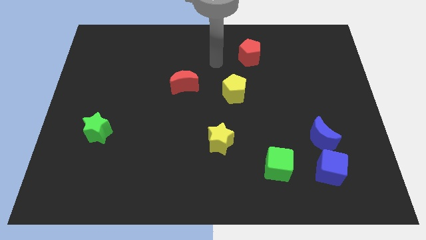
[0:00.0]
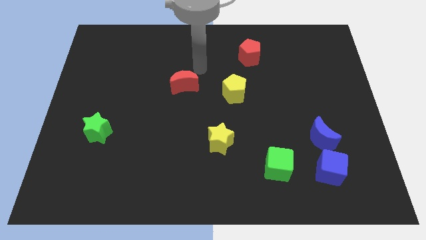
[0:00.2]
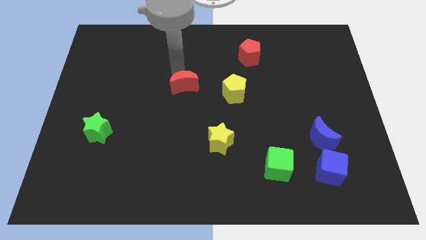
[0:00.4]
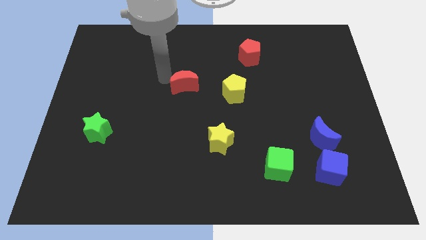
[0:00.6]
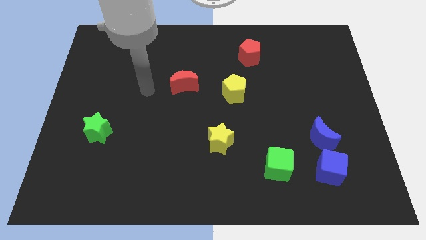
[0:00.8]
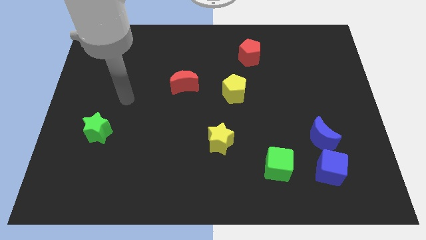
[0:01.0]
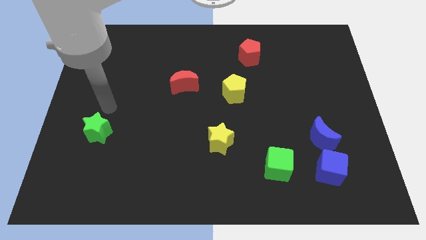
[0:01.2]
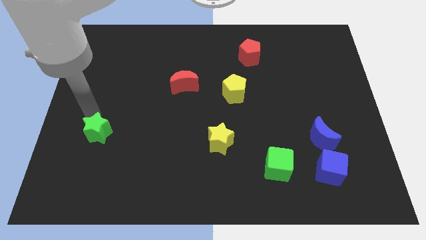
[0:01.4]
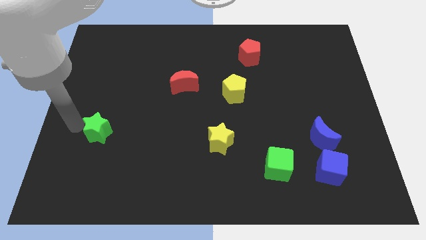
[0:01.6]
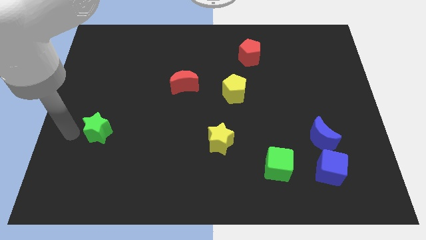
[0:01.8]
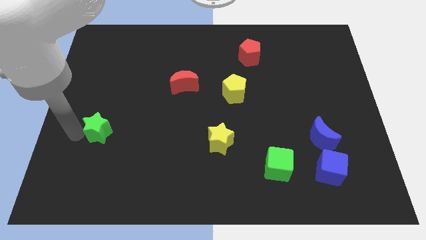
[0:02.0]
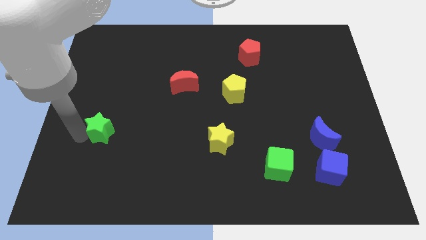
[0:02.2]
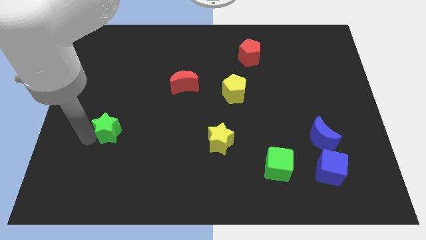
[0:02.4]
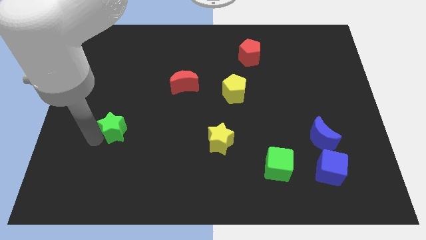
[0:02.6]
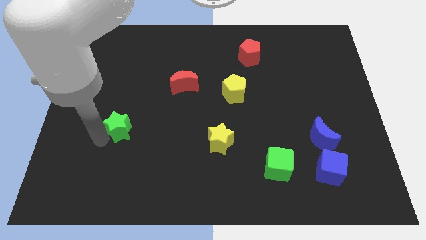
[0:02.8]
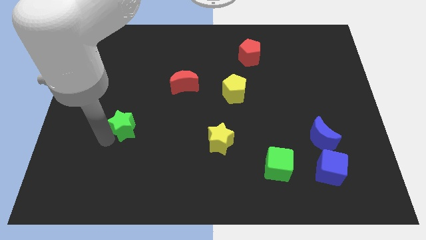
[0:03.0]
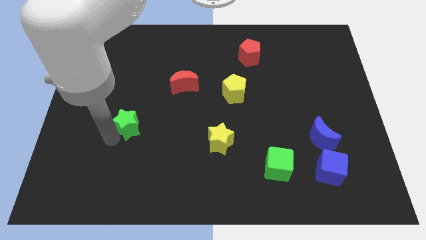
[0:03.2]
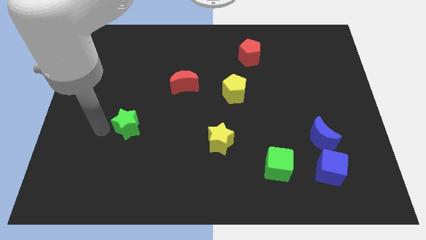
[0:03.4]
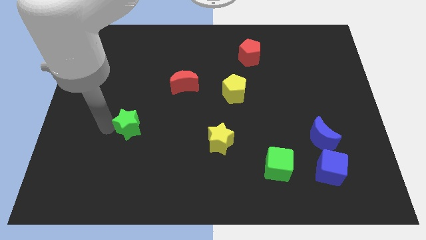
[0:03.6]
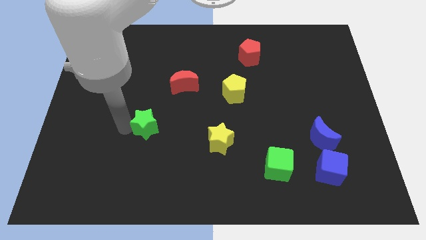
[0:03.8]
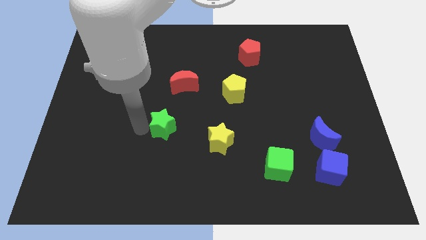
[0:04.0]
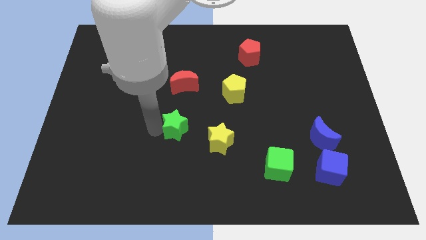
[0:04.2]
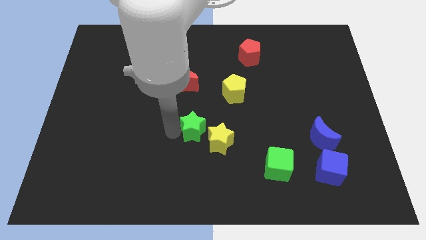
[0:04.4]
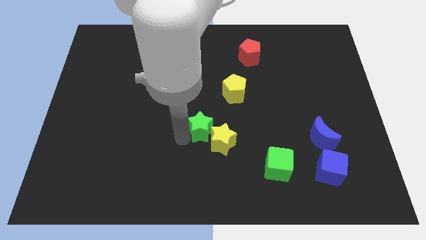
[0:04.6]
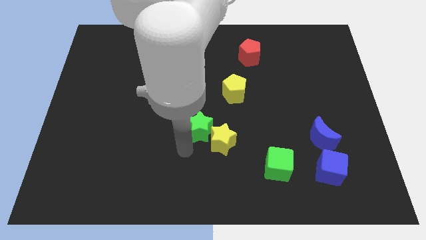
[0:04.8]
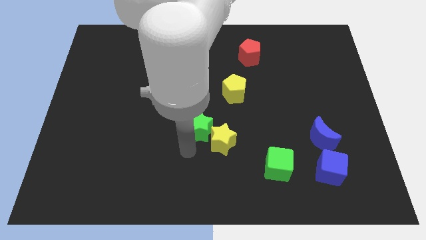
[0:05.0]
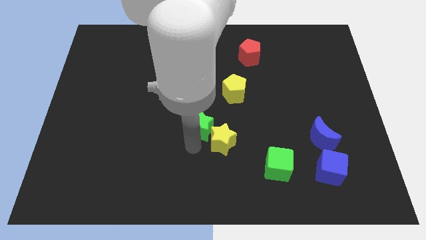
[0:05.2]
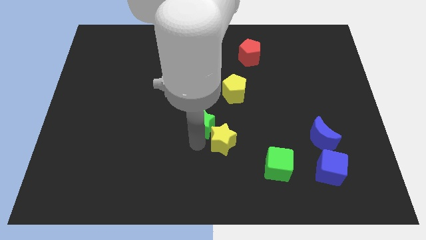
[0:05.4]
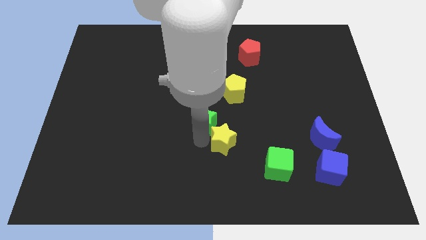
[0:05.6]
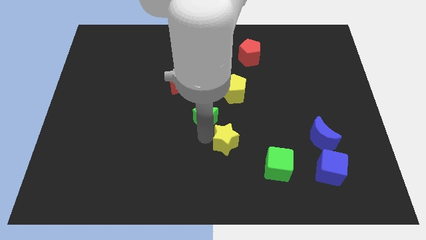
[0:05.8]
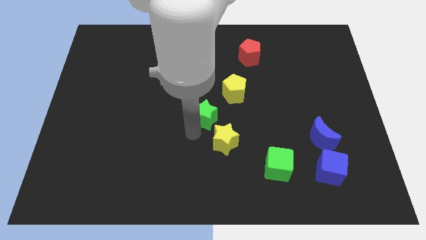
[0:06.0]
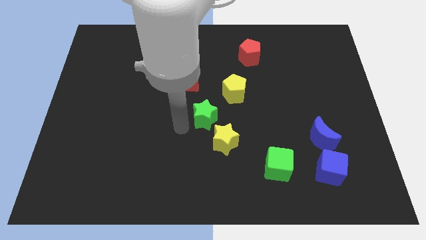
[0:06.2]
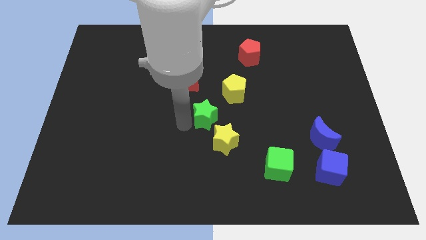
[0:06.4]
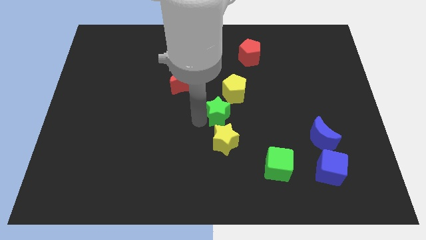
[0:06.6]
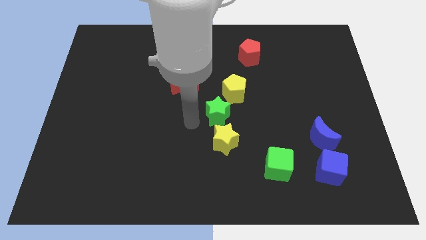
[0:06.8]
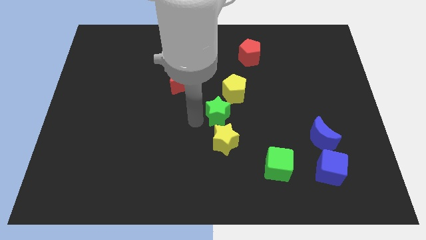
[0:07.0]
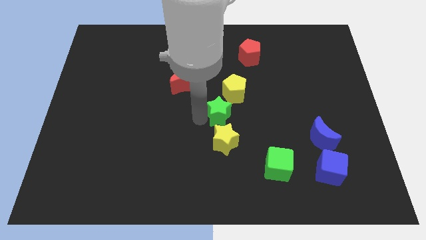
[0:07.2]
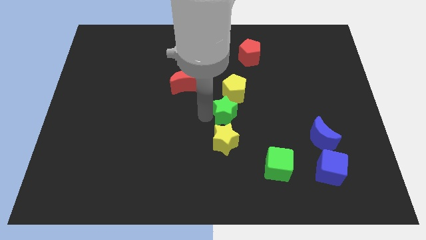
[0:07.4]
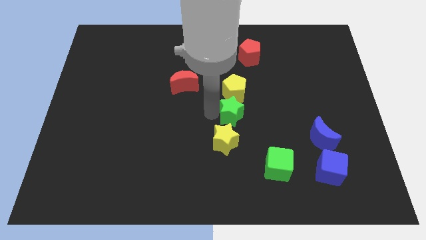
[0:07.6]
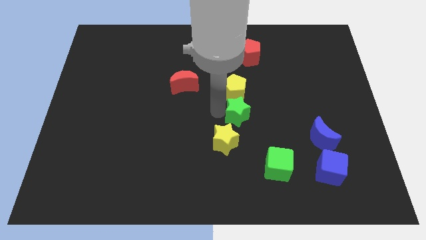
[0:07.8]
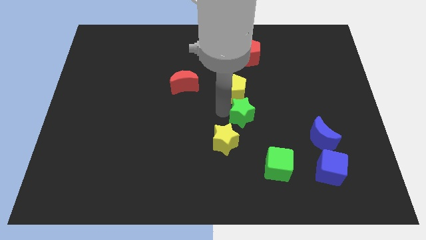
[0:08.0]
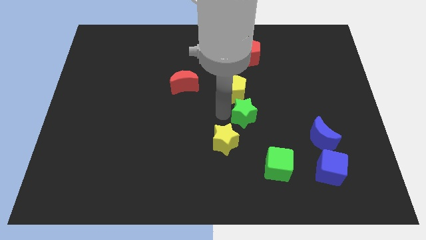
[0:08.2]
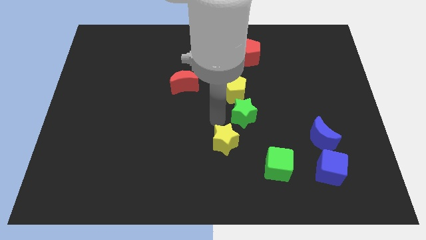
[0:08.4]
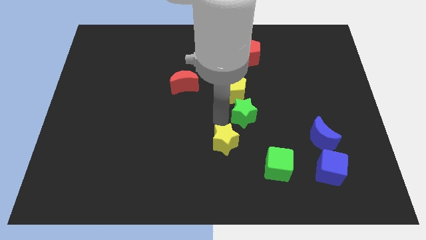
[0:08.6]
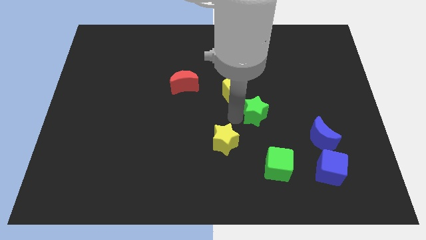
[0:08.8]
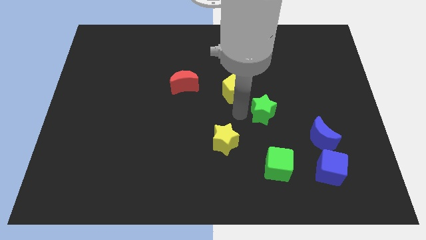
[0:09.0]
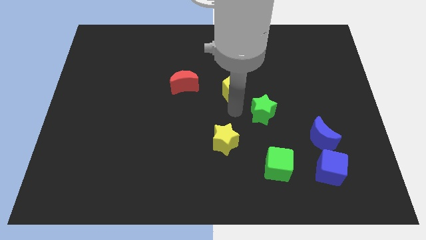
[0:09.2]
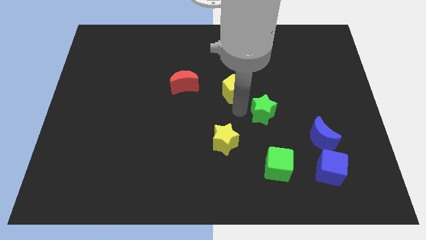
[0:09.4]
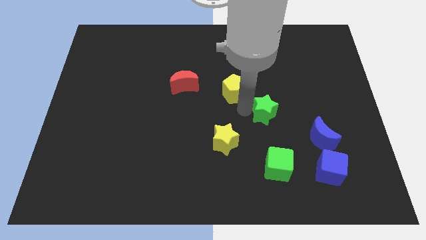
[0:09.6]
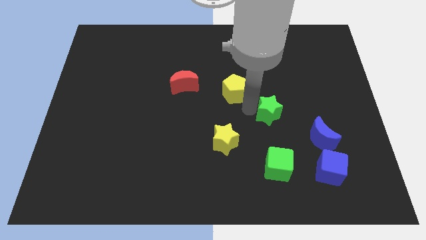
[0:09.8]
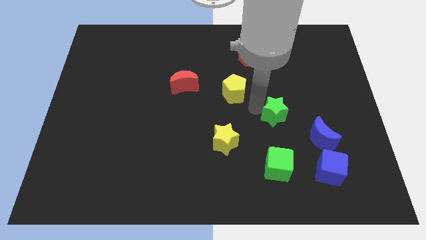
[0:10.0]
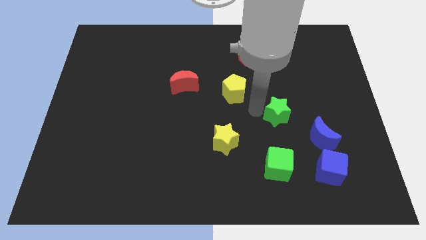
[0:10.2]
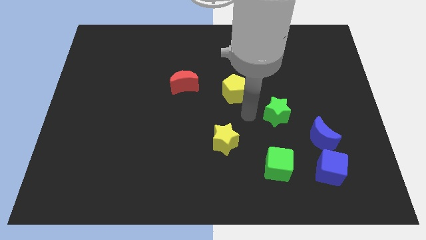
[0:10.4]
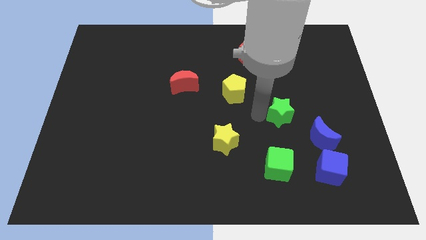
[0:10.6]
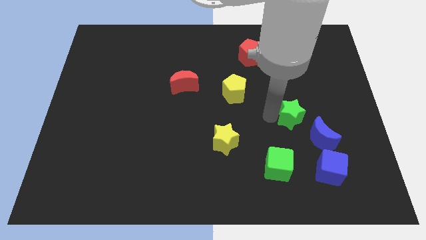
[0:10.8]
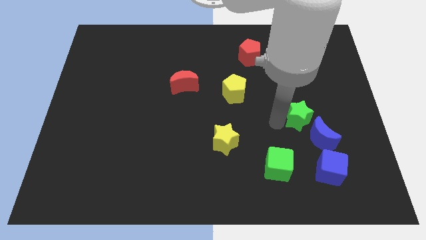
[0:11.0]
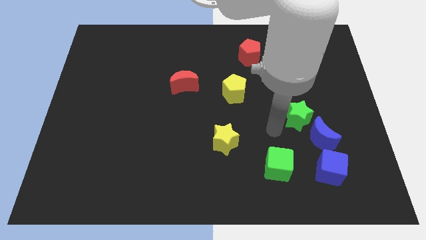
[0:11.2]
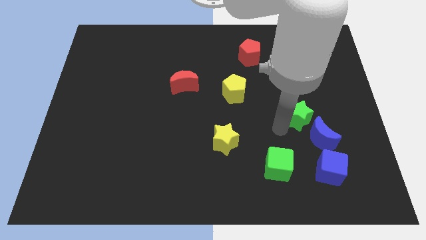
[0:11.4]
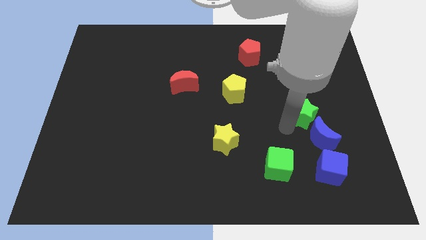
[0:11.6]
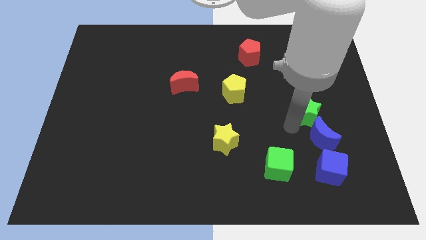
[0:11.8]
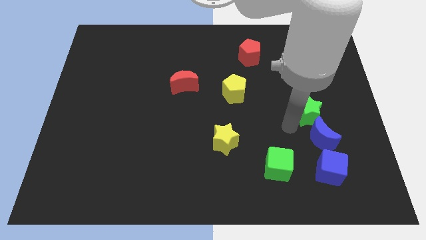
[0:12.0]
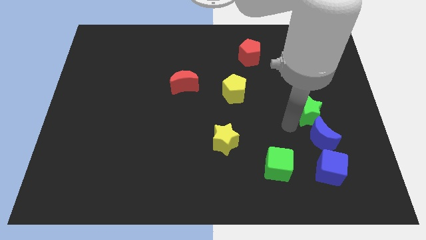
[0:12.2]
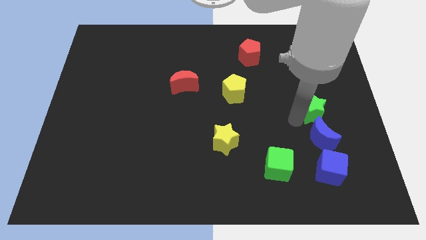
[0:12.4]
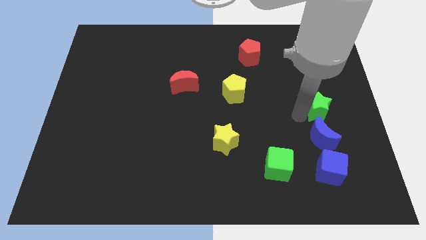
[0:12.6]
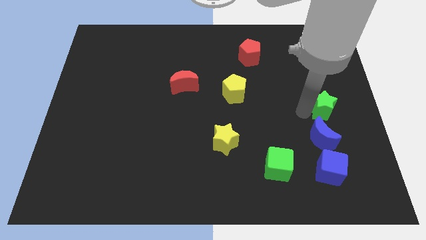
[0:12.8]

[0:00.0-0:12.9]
slide the green star to the right side of the board

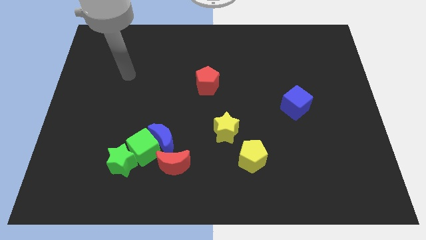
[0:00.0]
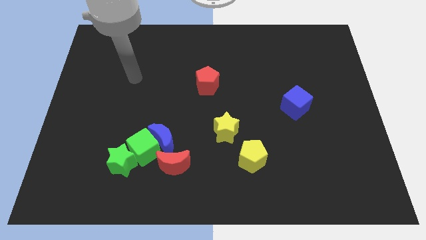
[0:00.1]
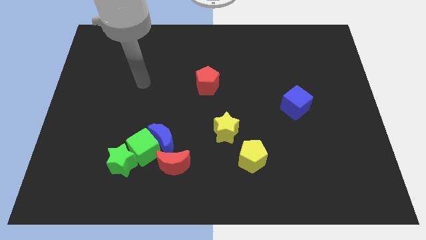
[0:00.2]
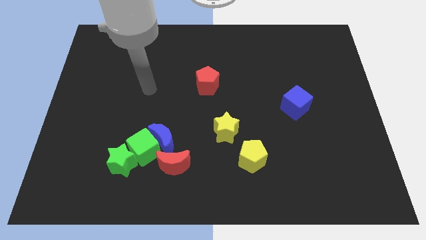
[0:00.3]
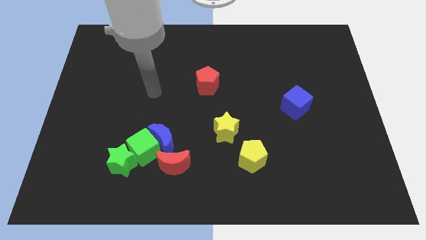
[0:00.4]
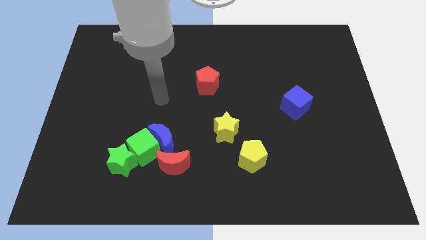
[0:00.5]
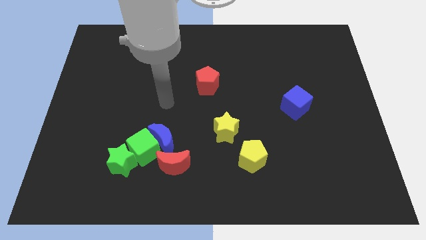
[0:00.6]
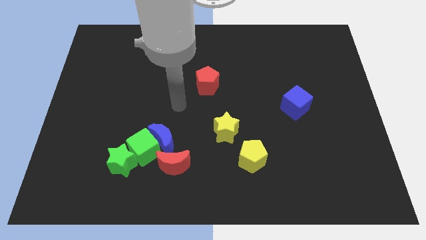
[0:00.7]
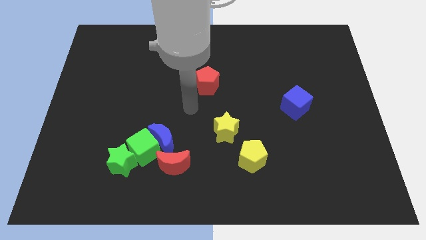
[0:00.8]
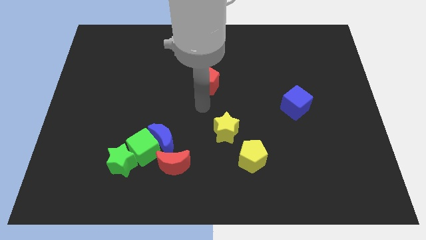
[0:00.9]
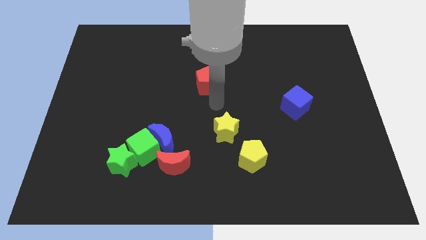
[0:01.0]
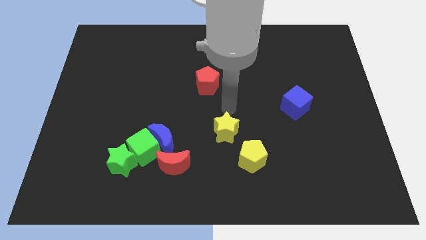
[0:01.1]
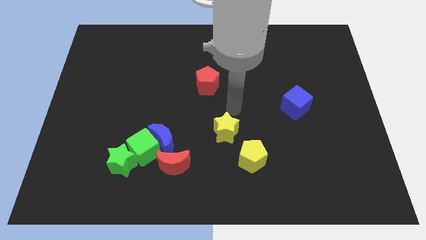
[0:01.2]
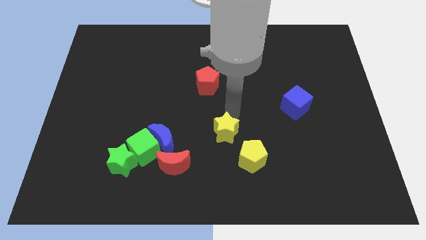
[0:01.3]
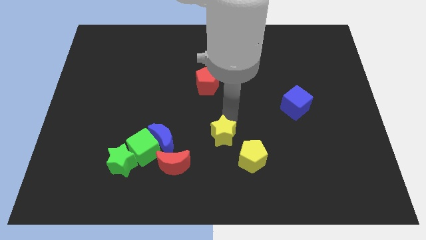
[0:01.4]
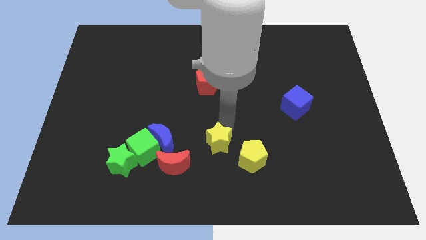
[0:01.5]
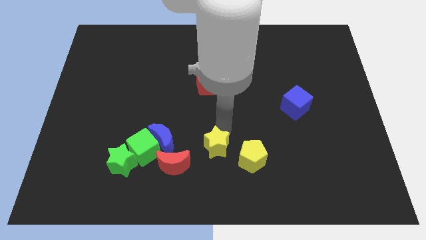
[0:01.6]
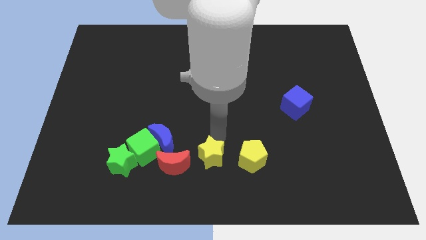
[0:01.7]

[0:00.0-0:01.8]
move the yellow star to the bottom side
